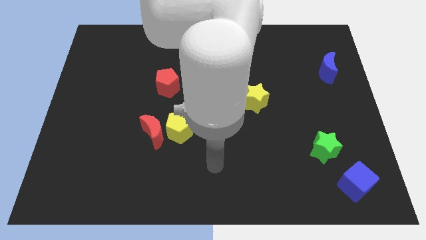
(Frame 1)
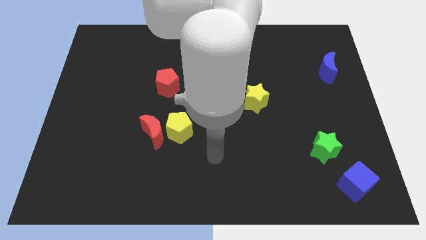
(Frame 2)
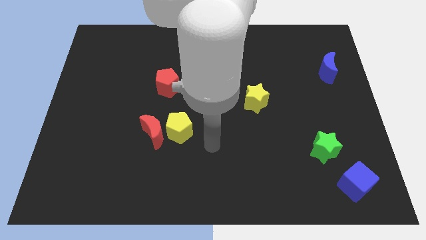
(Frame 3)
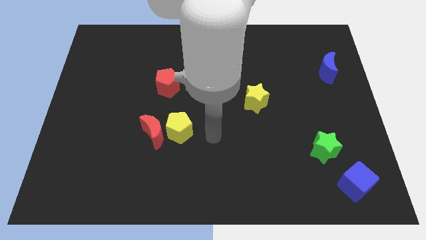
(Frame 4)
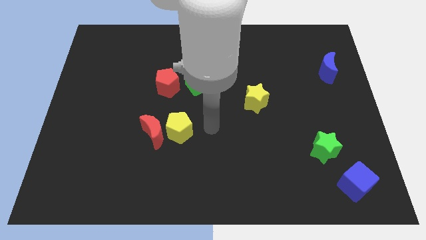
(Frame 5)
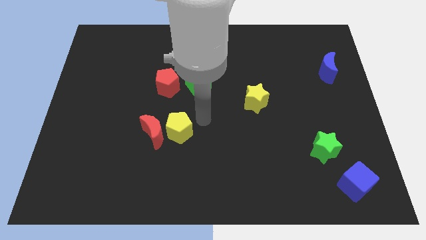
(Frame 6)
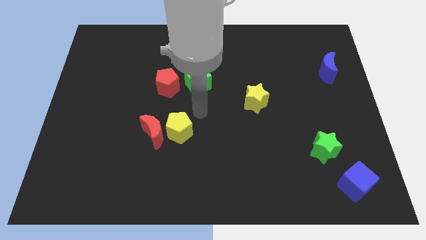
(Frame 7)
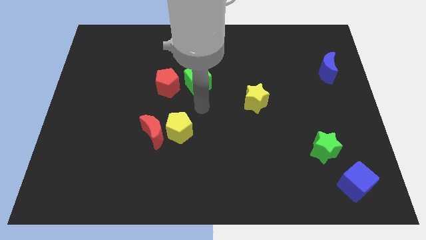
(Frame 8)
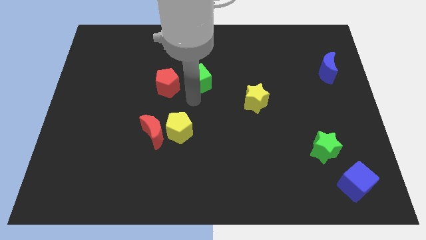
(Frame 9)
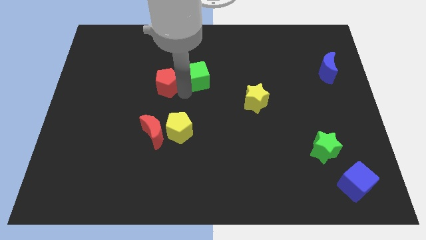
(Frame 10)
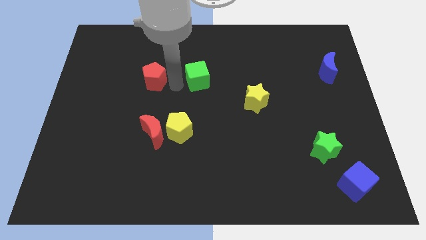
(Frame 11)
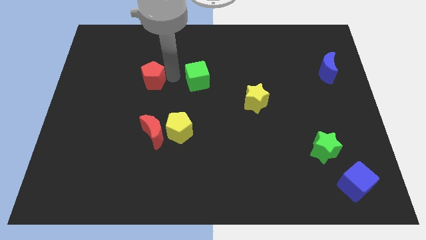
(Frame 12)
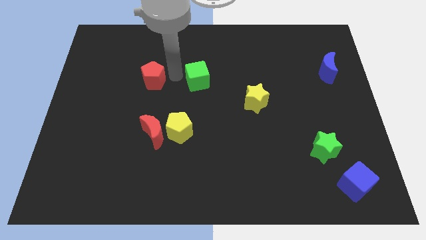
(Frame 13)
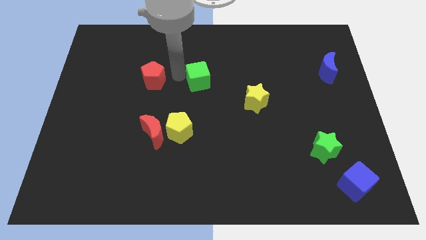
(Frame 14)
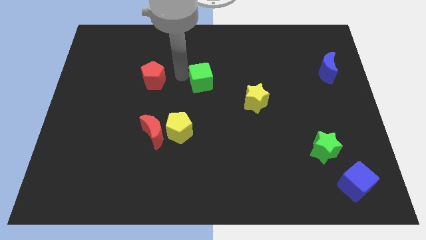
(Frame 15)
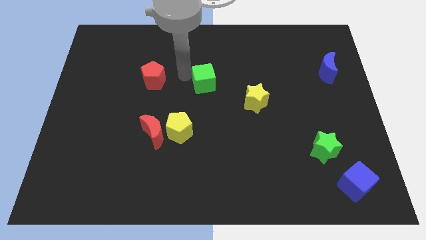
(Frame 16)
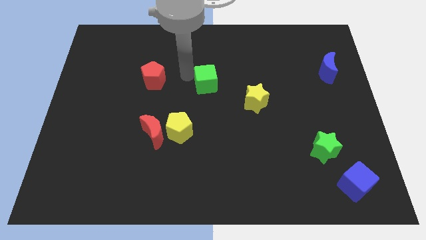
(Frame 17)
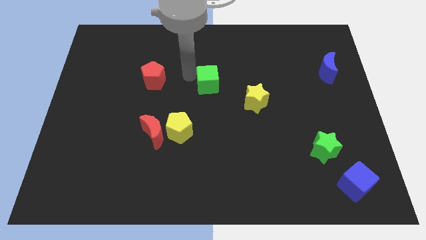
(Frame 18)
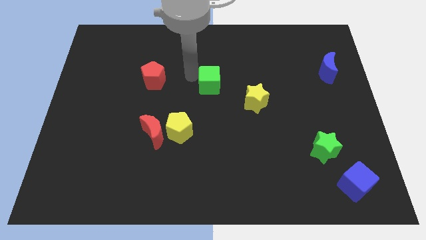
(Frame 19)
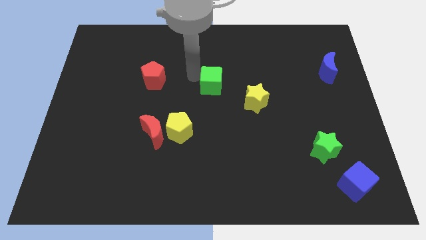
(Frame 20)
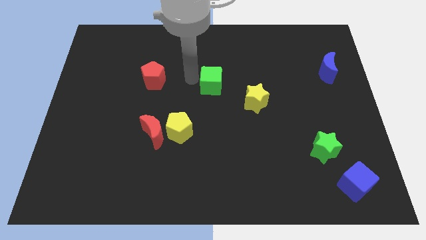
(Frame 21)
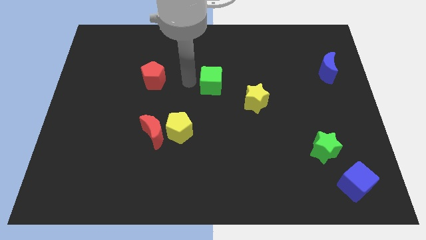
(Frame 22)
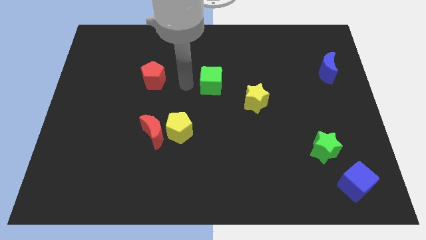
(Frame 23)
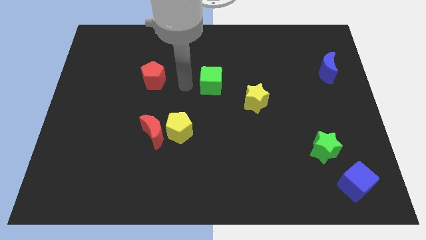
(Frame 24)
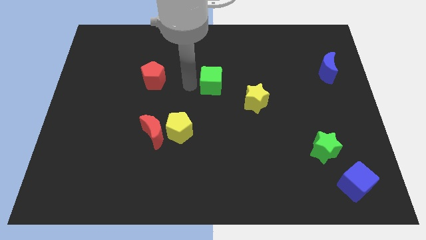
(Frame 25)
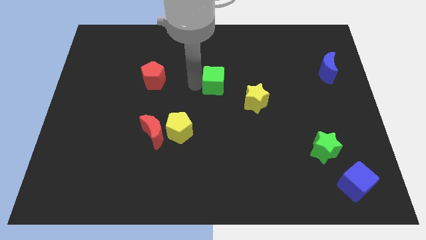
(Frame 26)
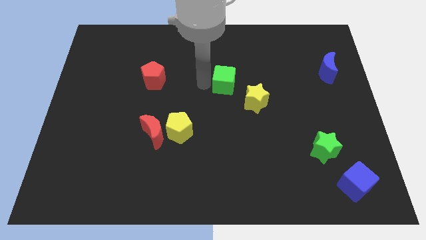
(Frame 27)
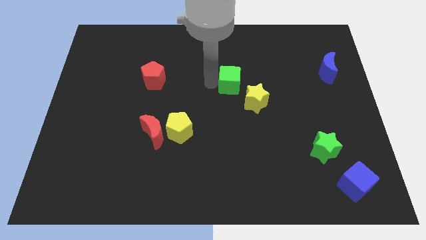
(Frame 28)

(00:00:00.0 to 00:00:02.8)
move the green cube a little bit to the right

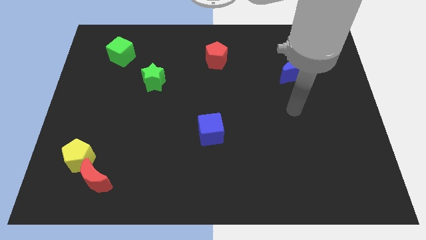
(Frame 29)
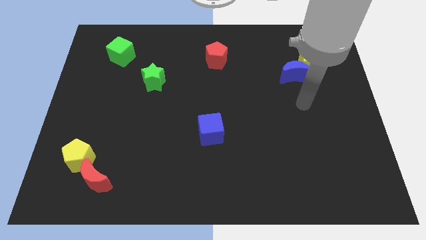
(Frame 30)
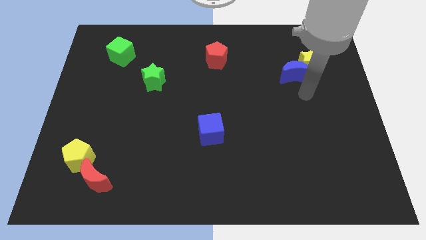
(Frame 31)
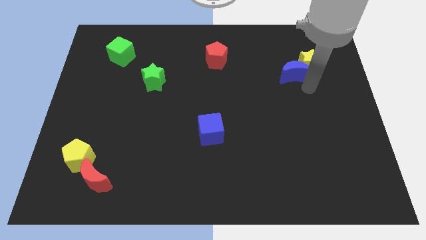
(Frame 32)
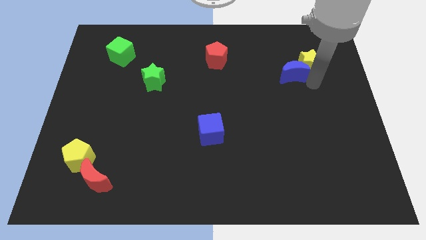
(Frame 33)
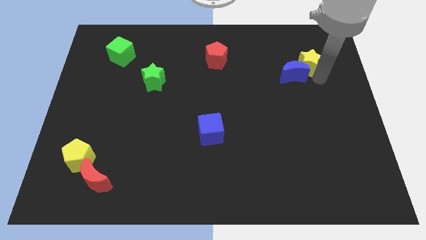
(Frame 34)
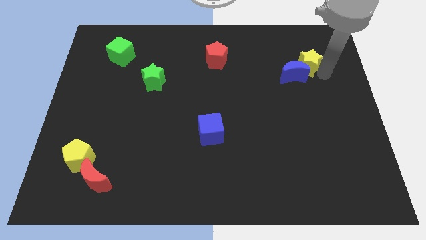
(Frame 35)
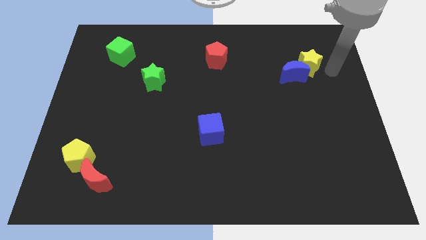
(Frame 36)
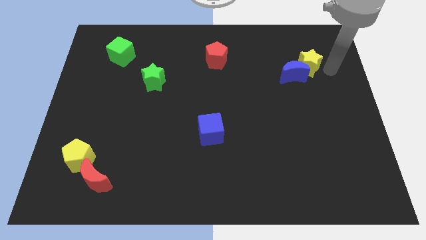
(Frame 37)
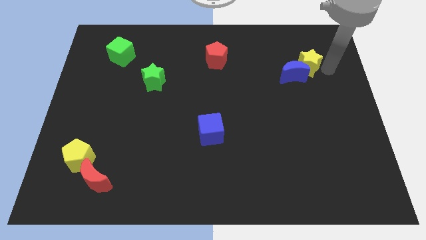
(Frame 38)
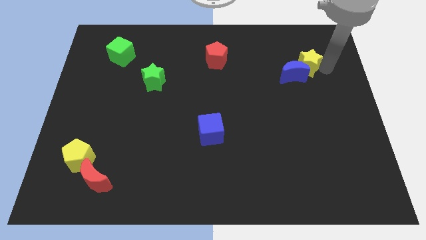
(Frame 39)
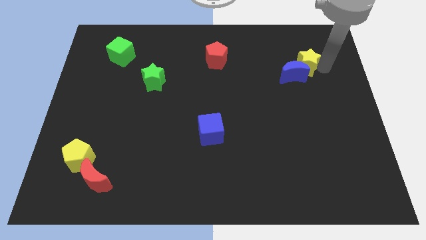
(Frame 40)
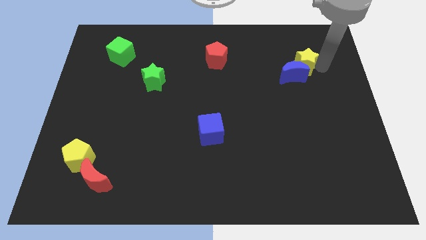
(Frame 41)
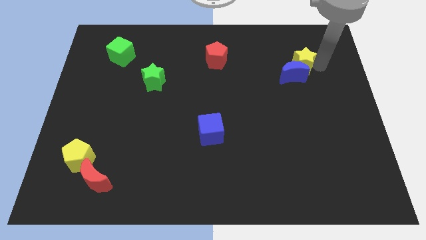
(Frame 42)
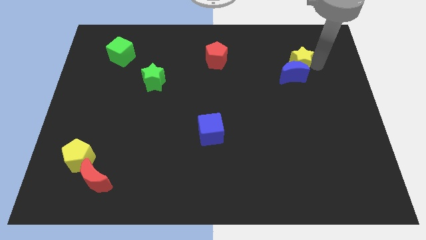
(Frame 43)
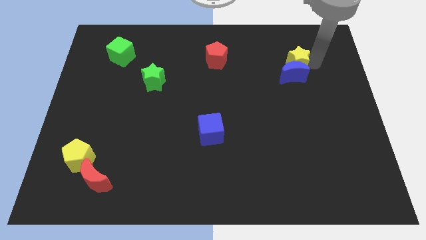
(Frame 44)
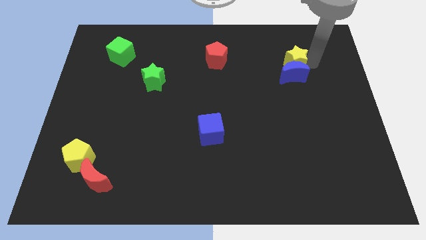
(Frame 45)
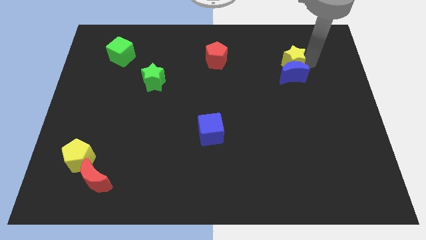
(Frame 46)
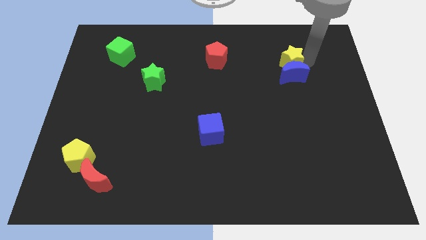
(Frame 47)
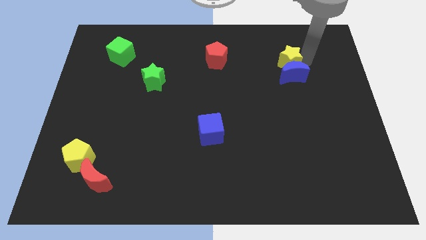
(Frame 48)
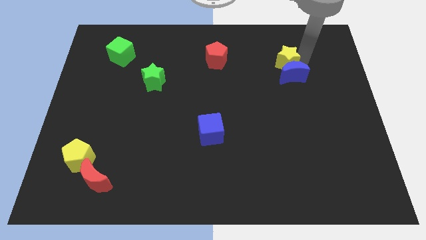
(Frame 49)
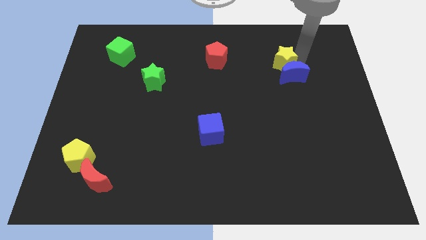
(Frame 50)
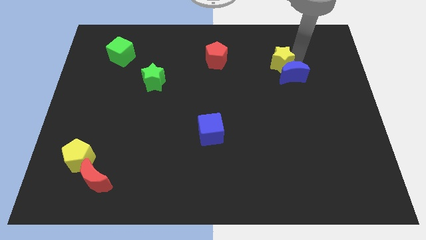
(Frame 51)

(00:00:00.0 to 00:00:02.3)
push the yellow star to the left slightly

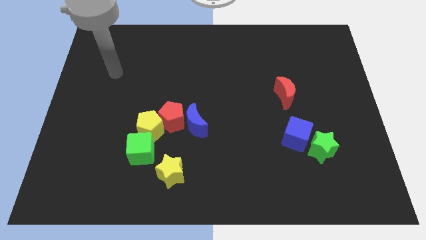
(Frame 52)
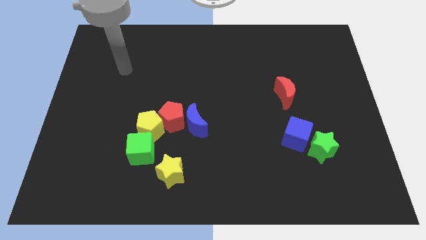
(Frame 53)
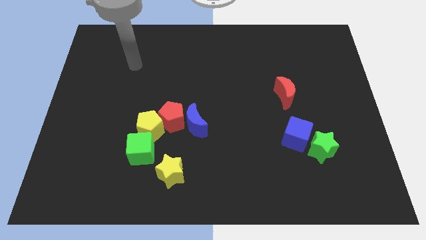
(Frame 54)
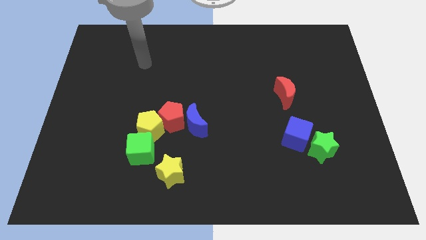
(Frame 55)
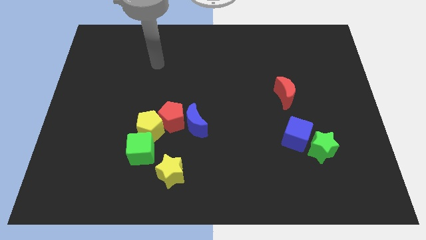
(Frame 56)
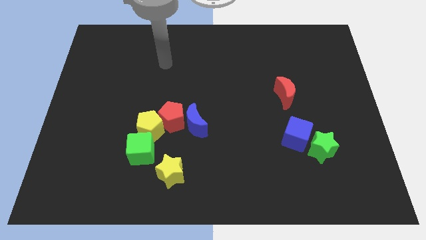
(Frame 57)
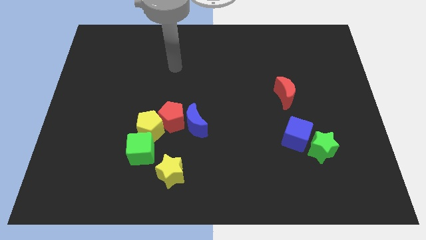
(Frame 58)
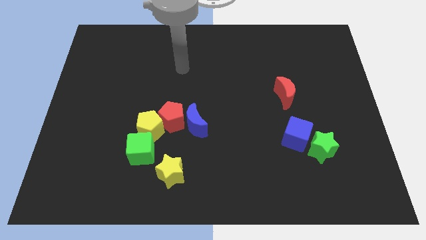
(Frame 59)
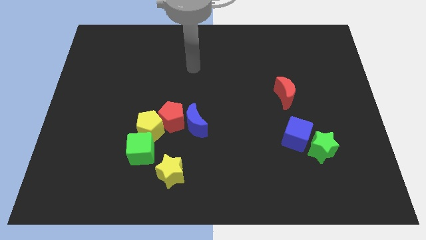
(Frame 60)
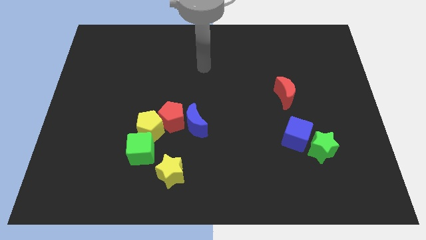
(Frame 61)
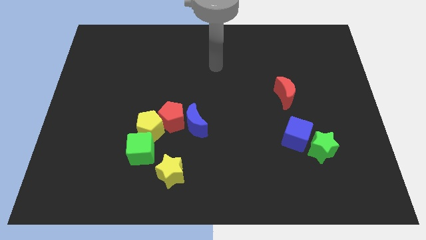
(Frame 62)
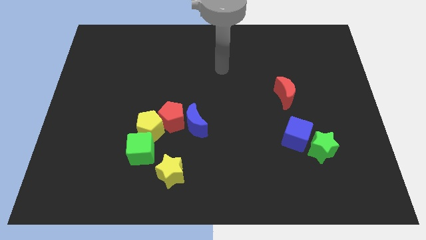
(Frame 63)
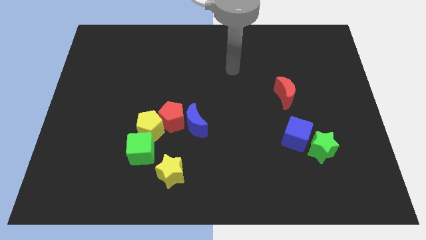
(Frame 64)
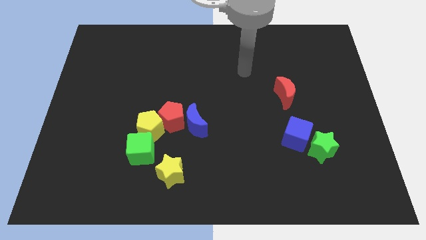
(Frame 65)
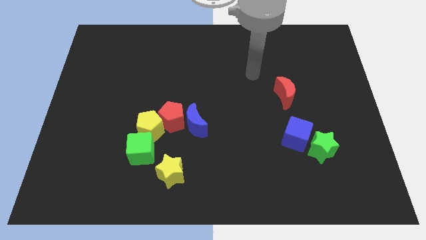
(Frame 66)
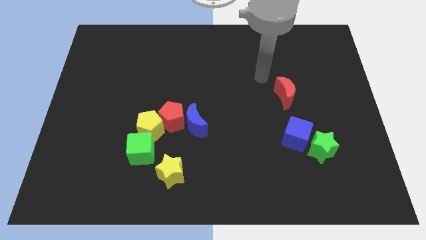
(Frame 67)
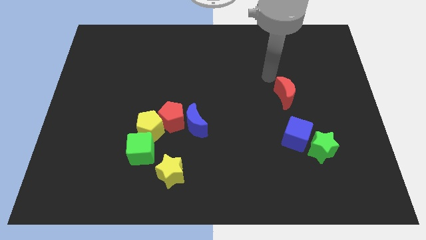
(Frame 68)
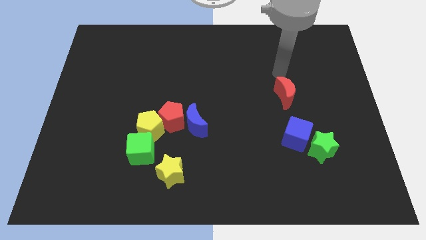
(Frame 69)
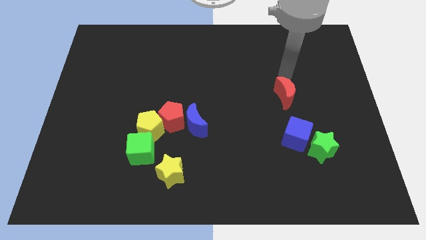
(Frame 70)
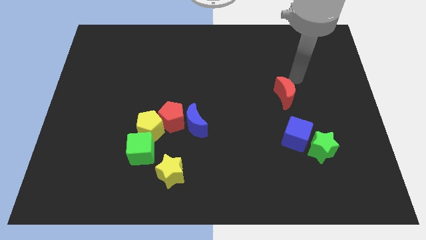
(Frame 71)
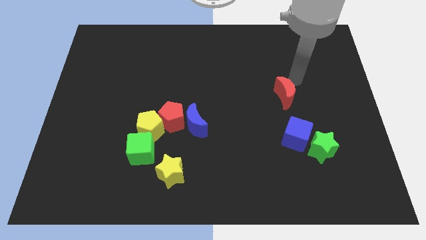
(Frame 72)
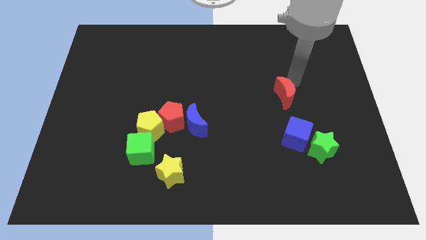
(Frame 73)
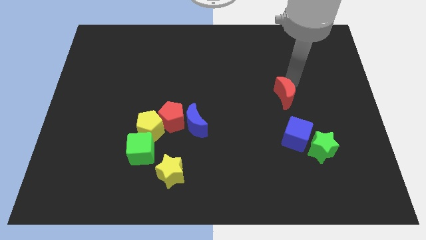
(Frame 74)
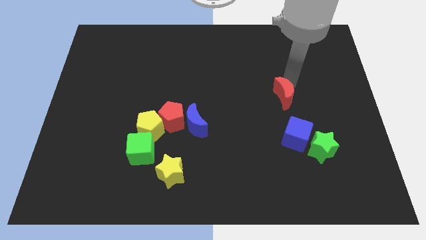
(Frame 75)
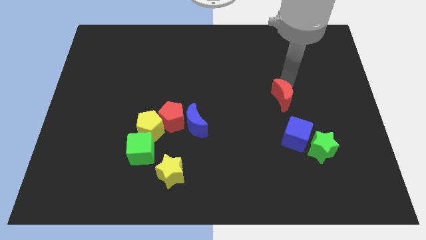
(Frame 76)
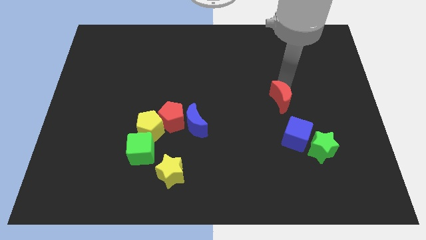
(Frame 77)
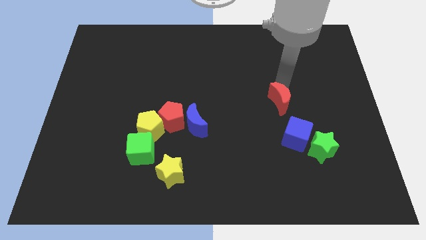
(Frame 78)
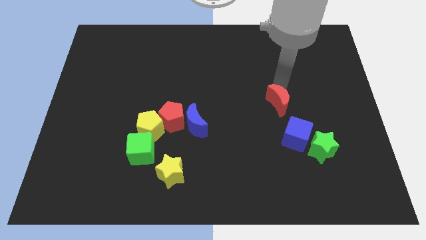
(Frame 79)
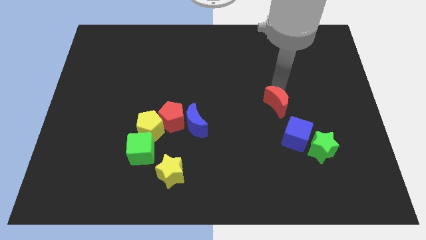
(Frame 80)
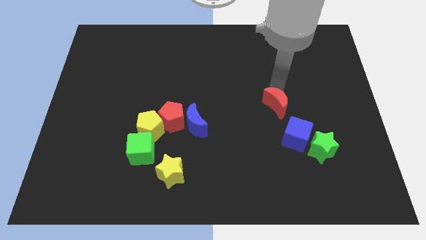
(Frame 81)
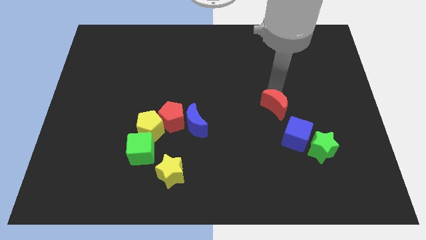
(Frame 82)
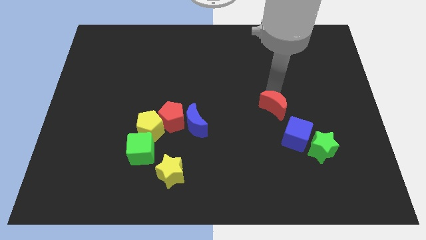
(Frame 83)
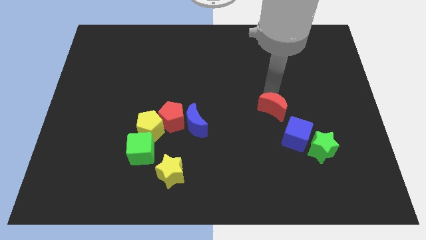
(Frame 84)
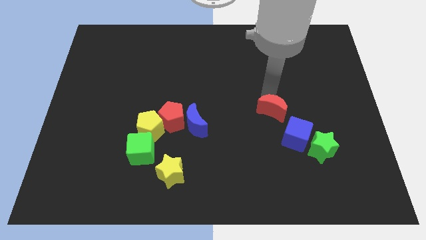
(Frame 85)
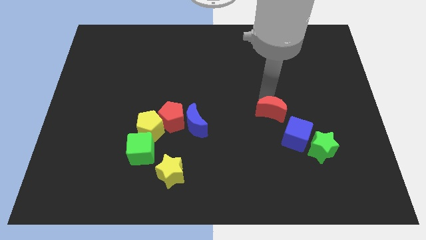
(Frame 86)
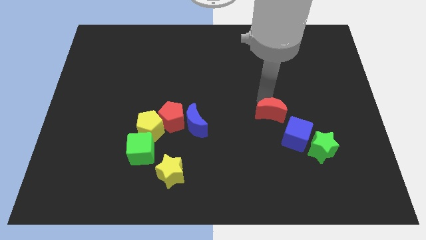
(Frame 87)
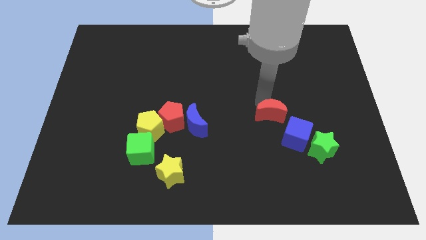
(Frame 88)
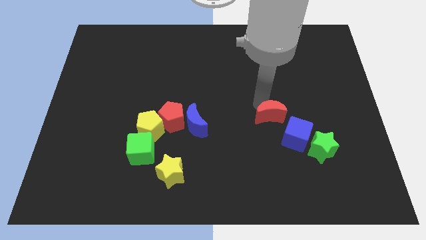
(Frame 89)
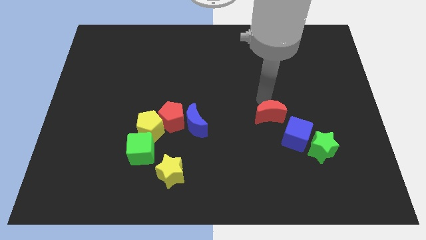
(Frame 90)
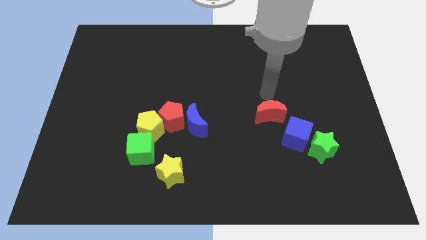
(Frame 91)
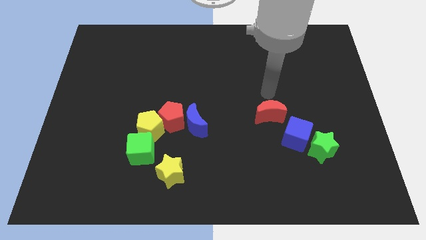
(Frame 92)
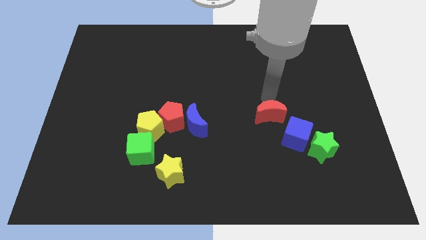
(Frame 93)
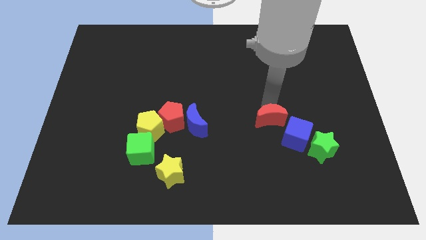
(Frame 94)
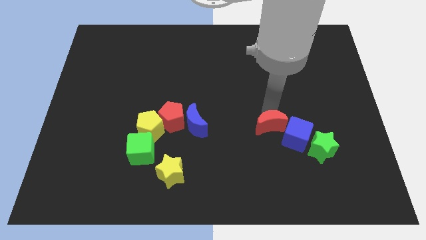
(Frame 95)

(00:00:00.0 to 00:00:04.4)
push the red moon downwards a little
